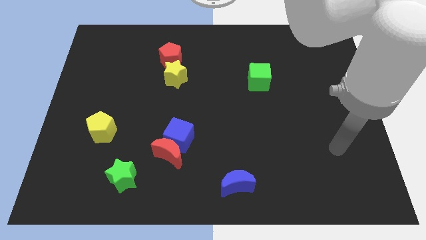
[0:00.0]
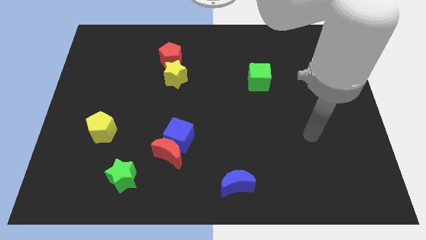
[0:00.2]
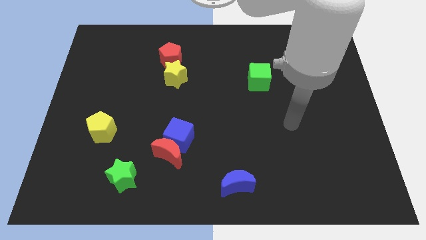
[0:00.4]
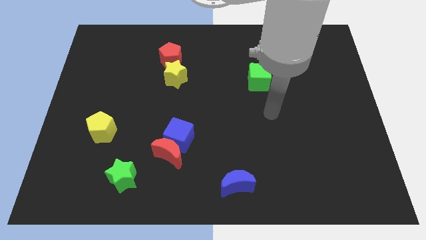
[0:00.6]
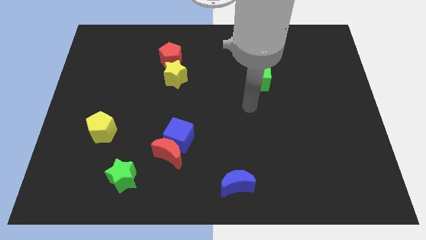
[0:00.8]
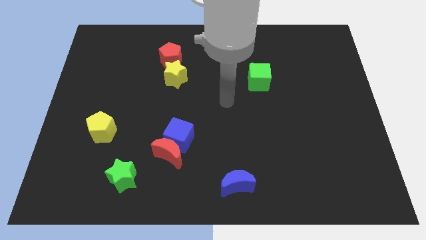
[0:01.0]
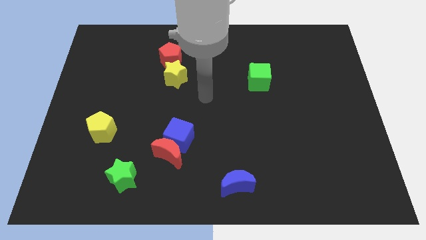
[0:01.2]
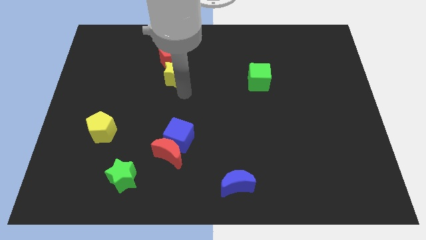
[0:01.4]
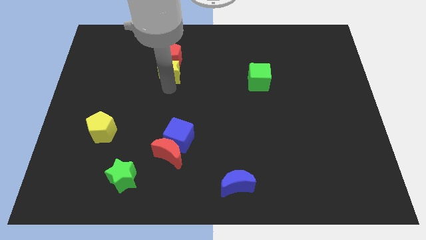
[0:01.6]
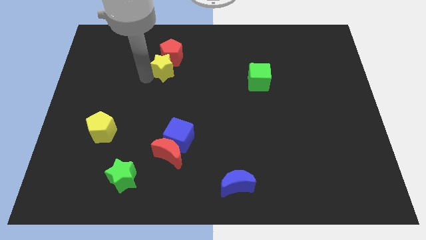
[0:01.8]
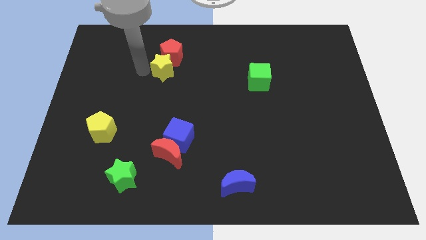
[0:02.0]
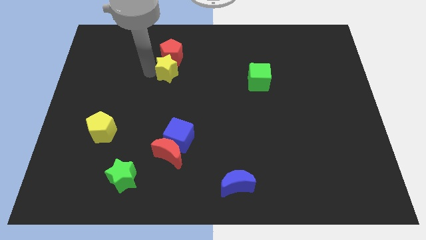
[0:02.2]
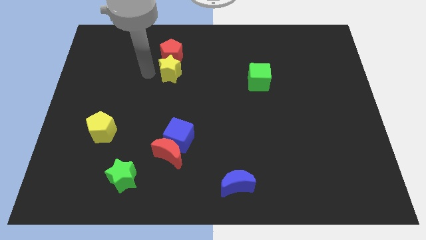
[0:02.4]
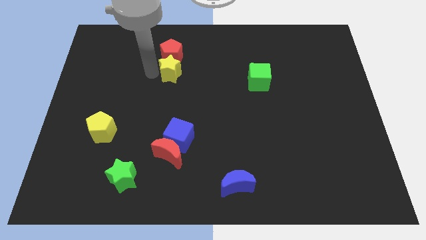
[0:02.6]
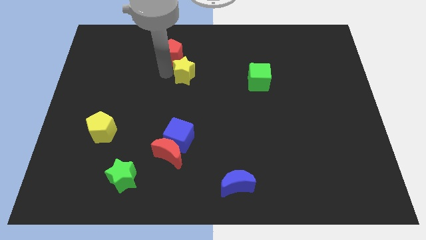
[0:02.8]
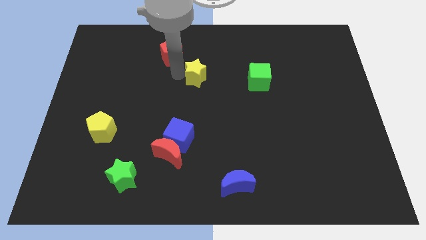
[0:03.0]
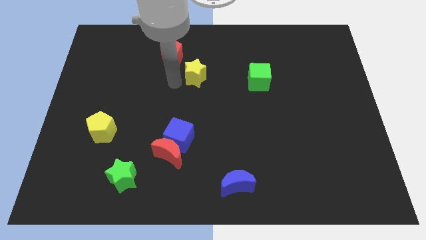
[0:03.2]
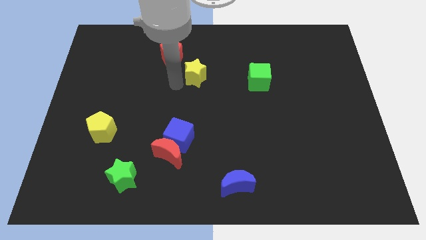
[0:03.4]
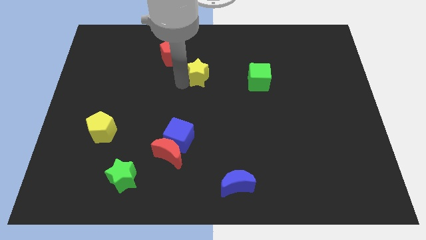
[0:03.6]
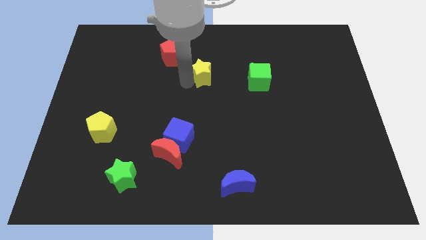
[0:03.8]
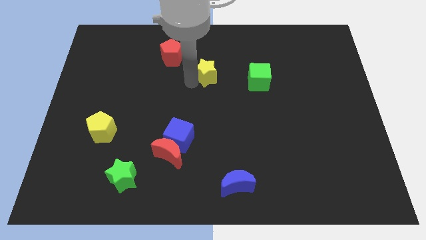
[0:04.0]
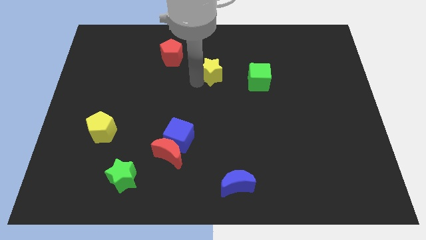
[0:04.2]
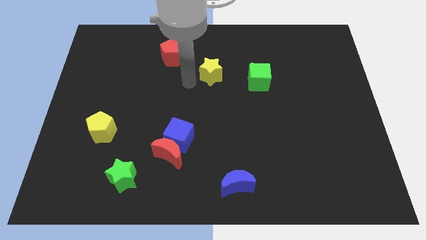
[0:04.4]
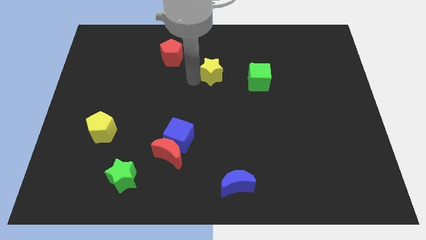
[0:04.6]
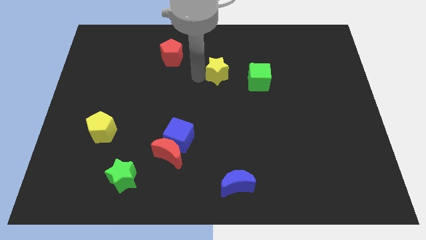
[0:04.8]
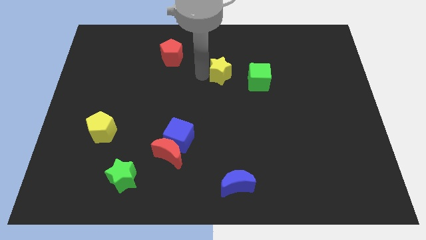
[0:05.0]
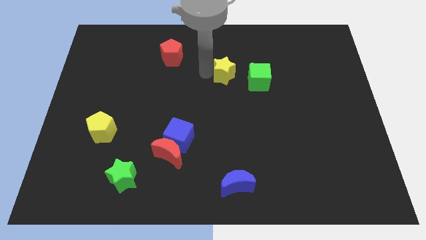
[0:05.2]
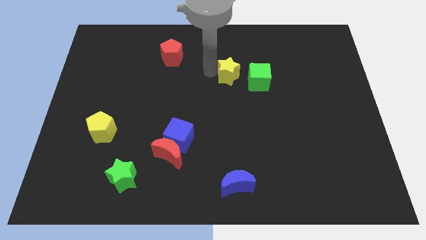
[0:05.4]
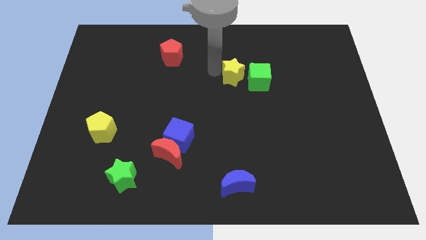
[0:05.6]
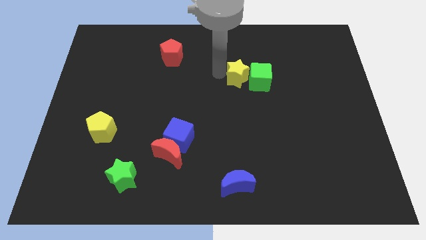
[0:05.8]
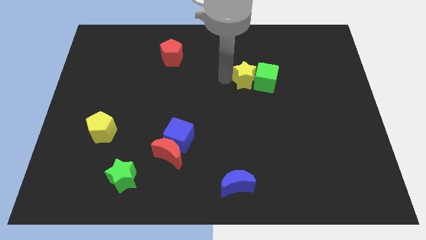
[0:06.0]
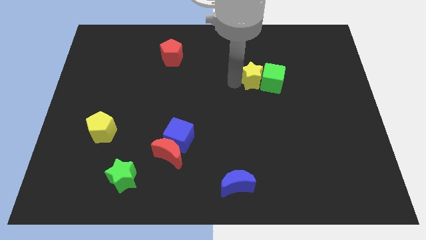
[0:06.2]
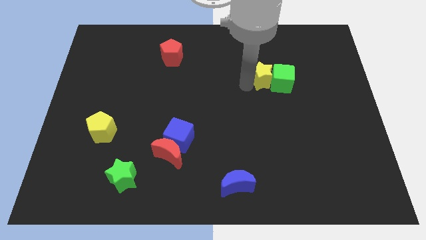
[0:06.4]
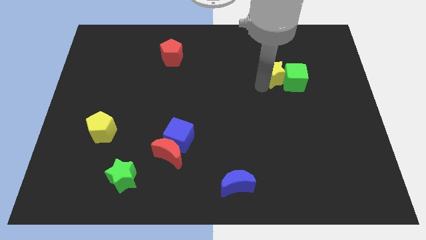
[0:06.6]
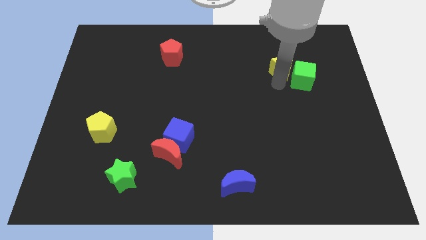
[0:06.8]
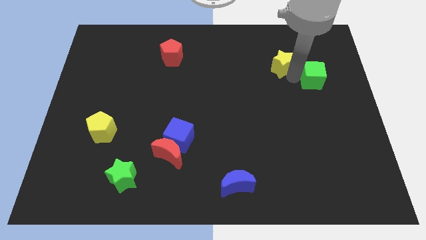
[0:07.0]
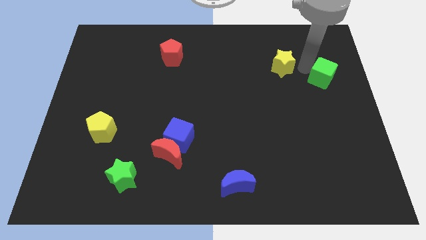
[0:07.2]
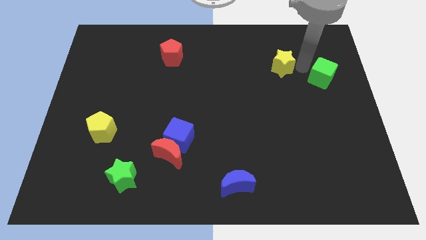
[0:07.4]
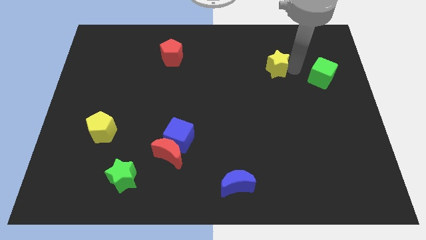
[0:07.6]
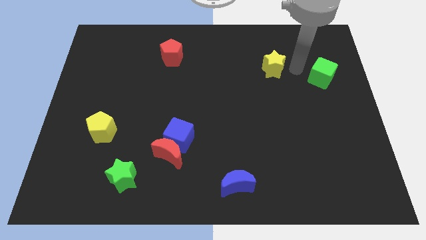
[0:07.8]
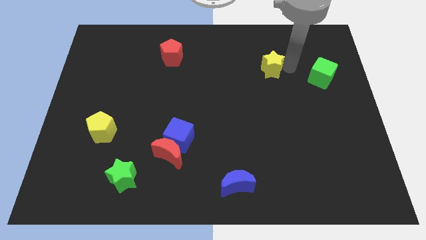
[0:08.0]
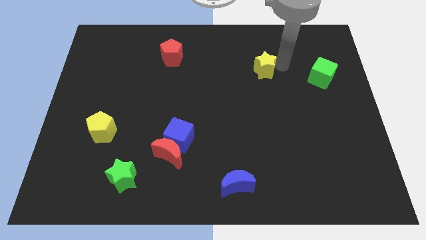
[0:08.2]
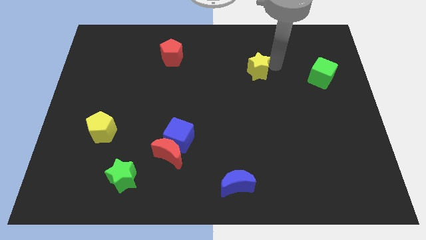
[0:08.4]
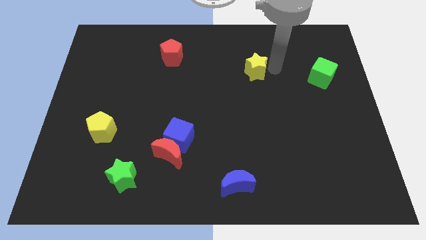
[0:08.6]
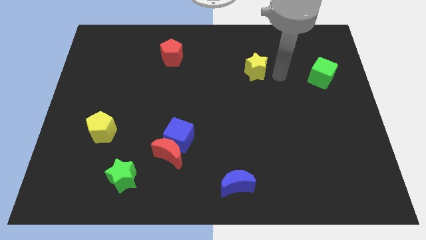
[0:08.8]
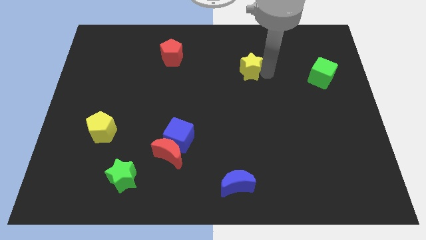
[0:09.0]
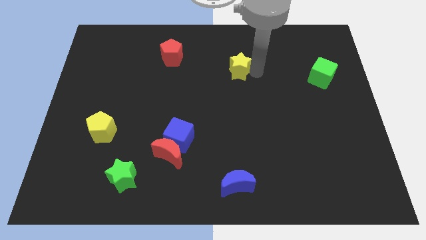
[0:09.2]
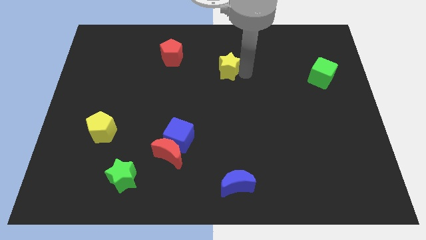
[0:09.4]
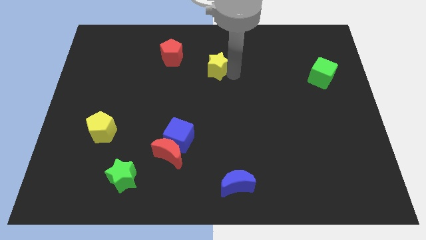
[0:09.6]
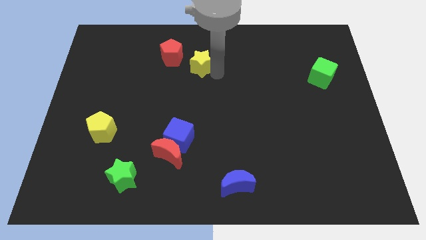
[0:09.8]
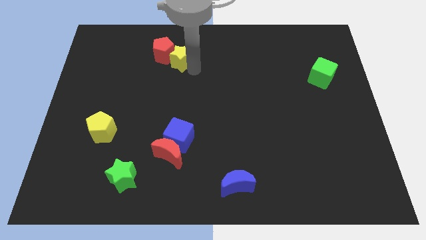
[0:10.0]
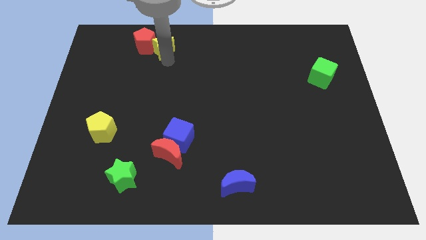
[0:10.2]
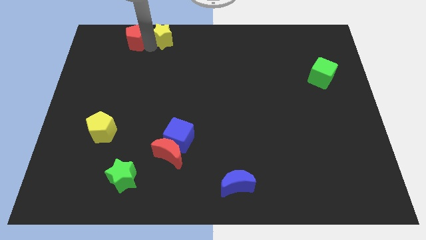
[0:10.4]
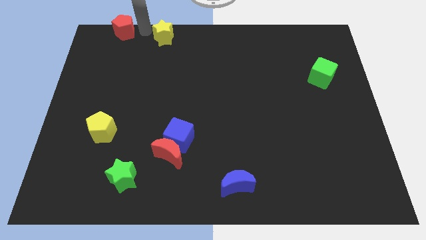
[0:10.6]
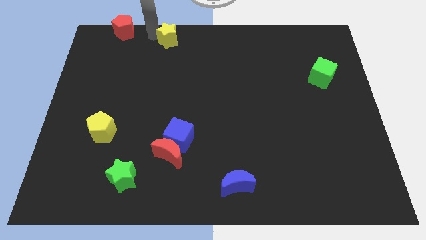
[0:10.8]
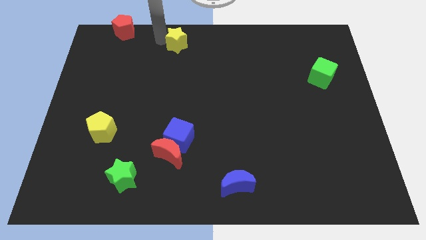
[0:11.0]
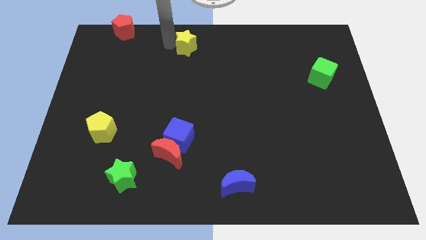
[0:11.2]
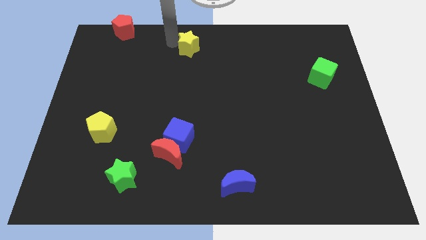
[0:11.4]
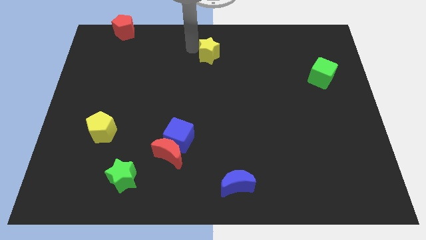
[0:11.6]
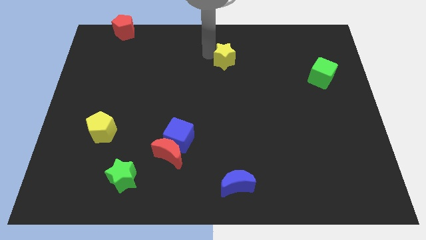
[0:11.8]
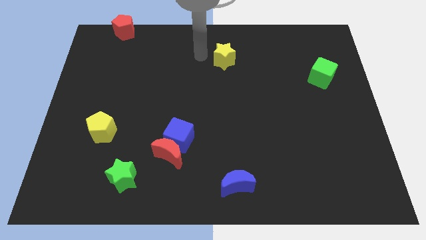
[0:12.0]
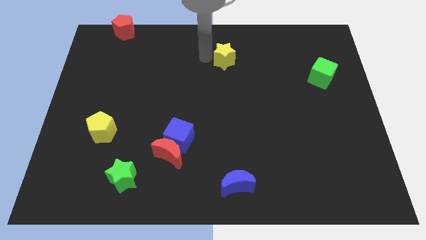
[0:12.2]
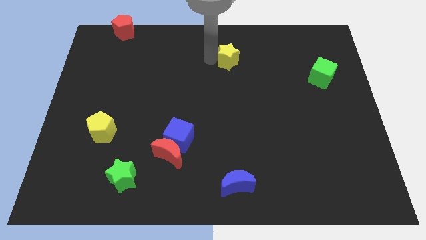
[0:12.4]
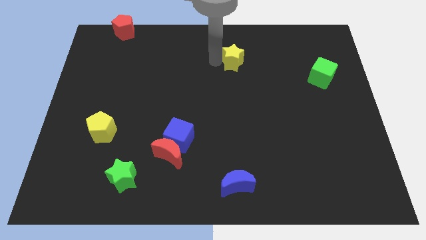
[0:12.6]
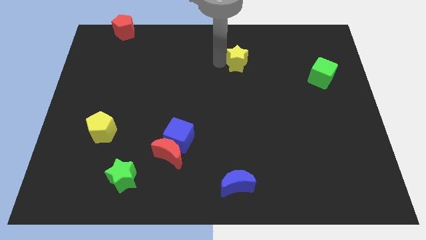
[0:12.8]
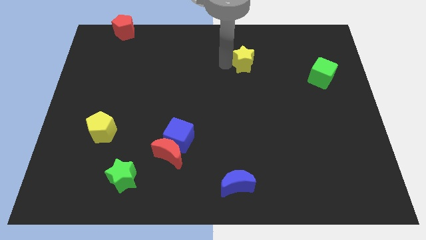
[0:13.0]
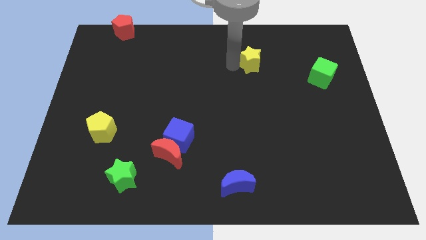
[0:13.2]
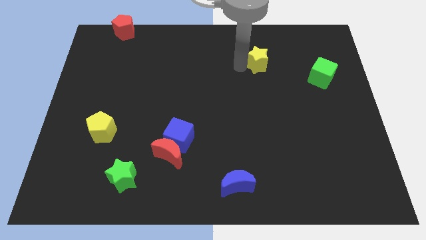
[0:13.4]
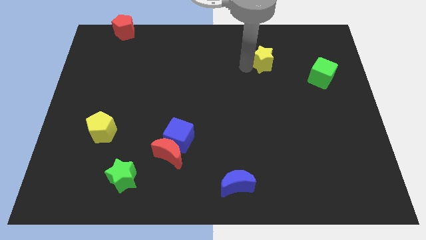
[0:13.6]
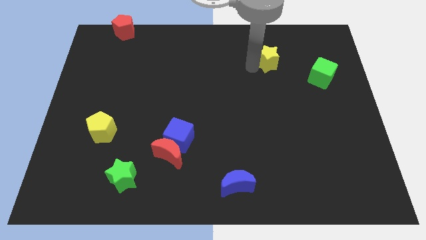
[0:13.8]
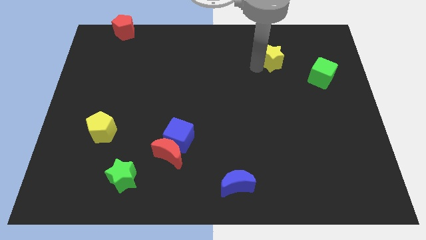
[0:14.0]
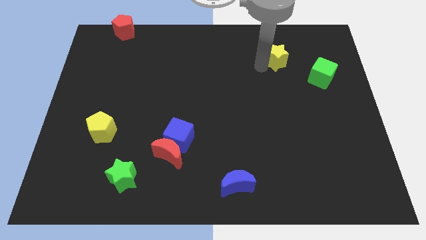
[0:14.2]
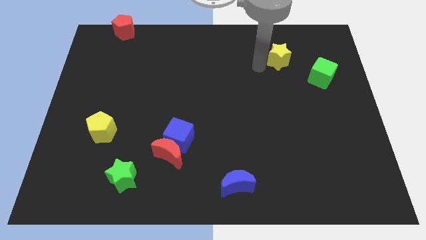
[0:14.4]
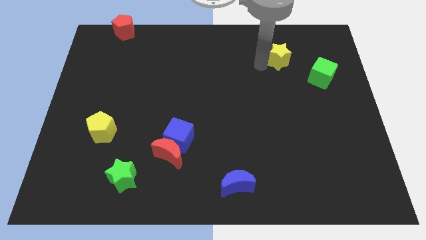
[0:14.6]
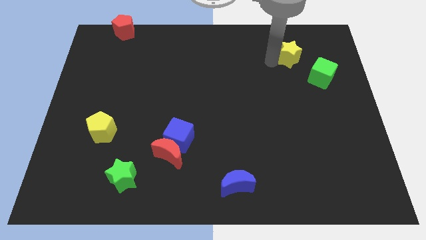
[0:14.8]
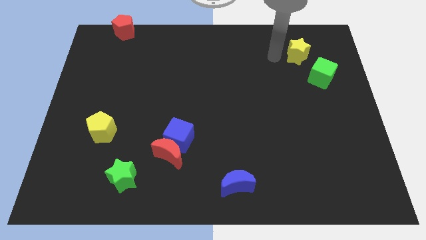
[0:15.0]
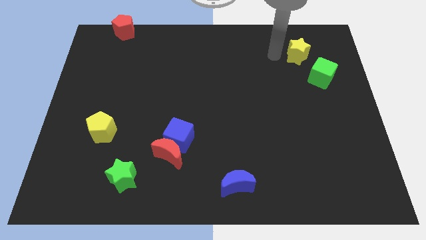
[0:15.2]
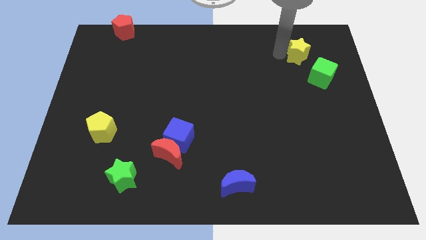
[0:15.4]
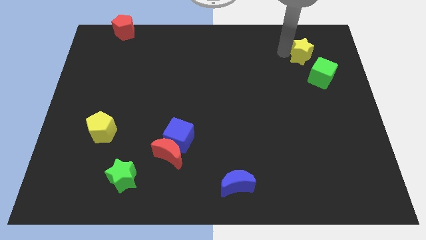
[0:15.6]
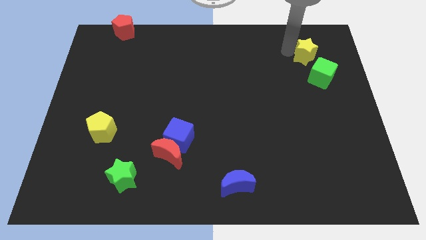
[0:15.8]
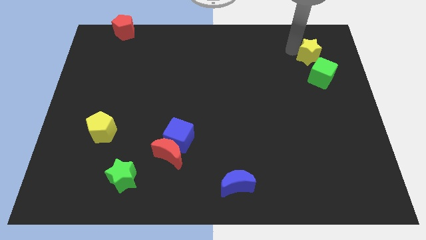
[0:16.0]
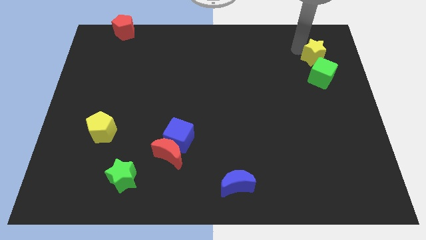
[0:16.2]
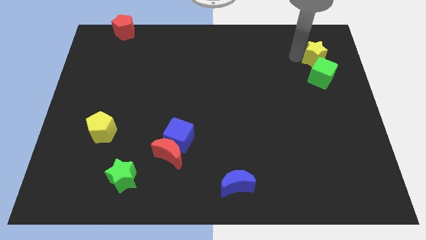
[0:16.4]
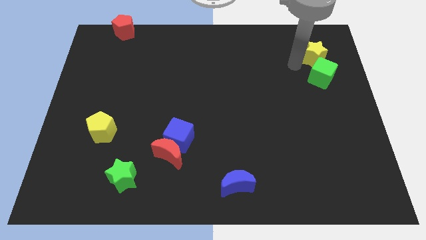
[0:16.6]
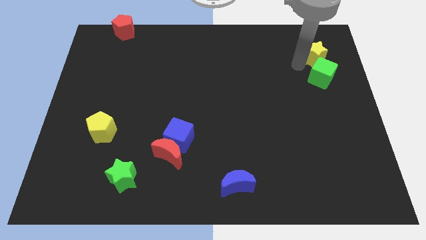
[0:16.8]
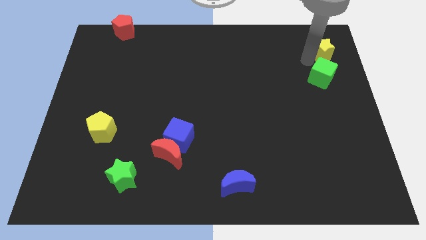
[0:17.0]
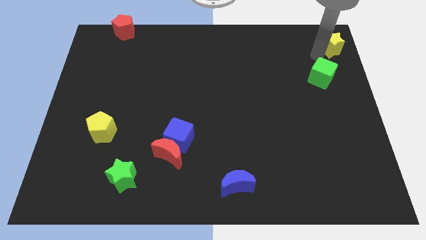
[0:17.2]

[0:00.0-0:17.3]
put the yellow star to the top right
